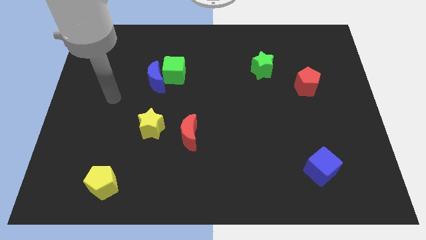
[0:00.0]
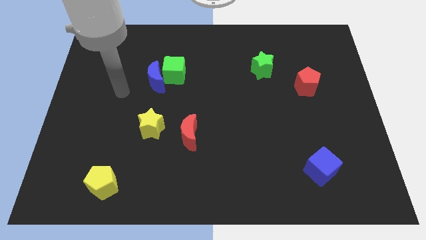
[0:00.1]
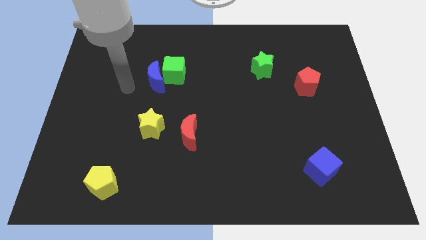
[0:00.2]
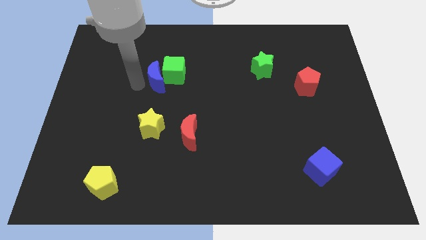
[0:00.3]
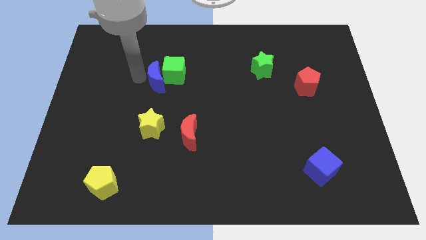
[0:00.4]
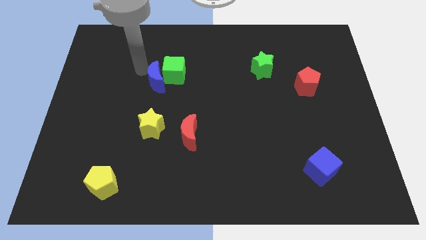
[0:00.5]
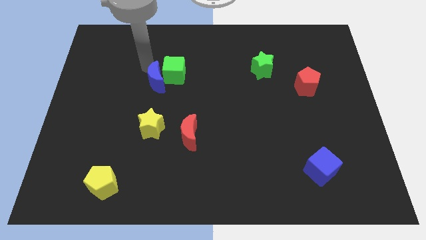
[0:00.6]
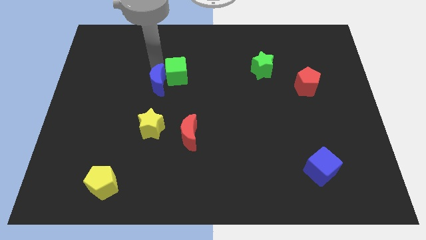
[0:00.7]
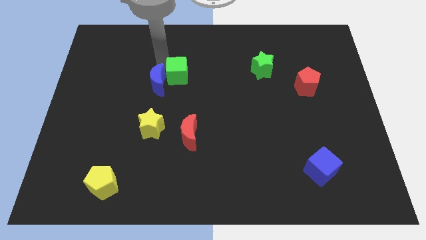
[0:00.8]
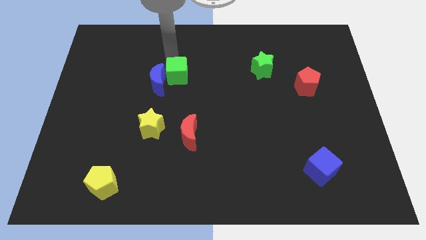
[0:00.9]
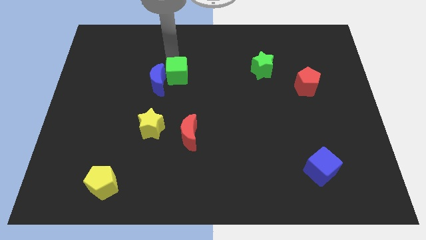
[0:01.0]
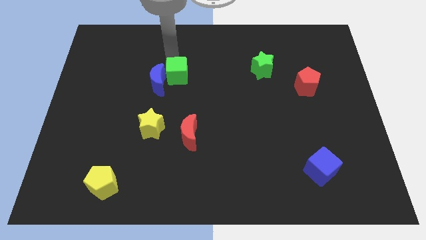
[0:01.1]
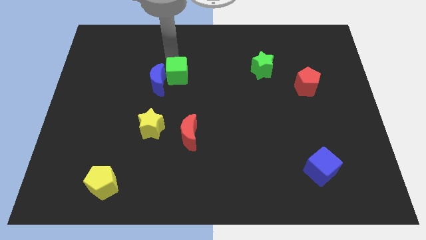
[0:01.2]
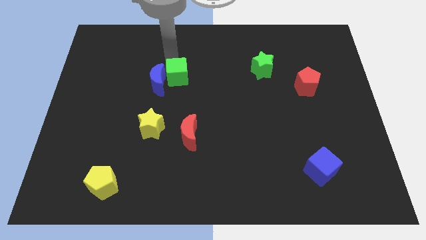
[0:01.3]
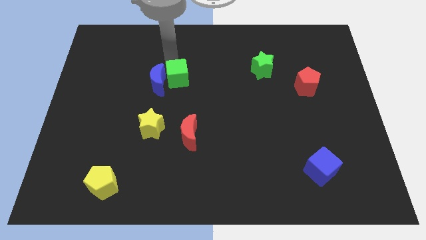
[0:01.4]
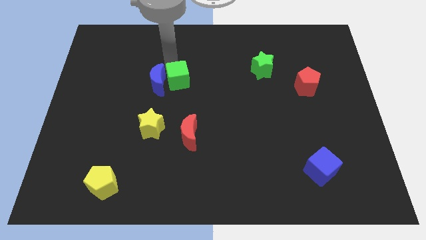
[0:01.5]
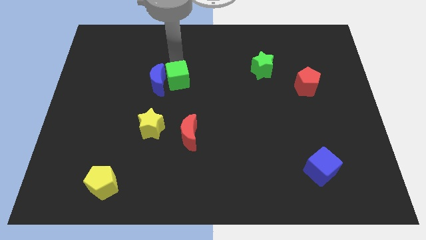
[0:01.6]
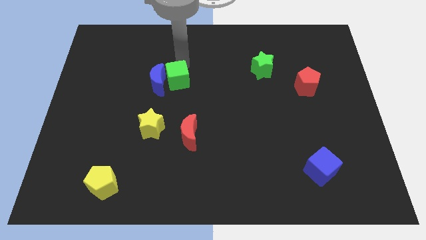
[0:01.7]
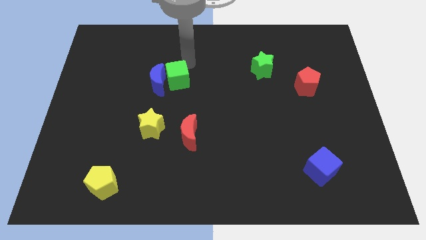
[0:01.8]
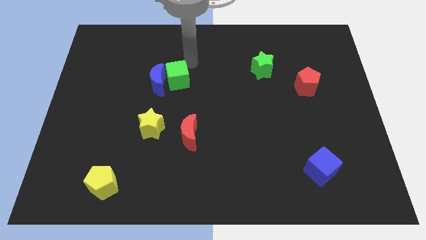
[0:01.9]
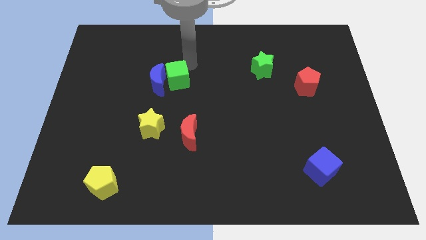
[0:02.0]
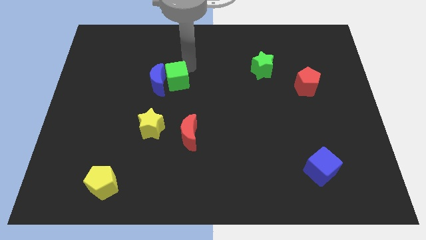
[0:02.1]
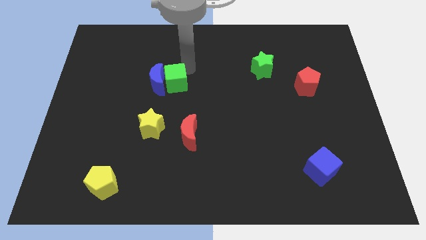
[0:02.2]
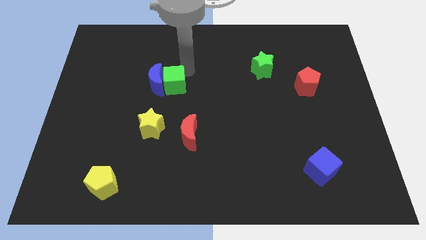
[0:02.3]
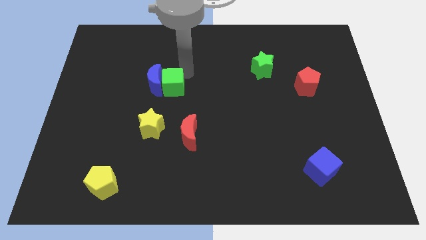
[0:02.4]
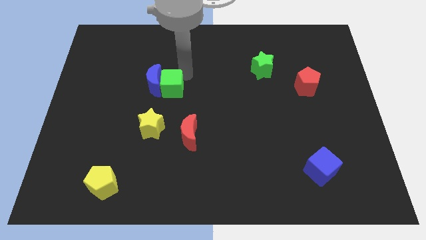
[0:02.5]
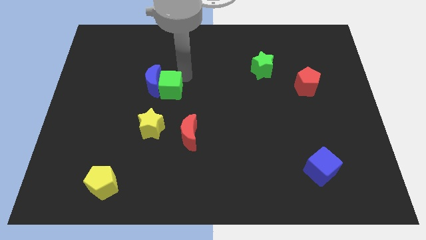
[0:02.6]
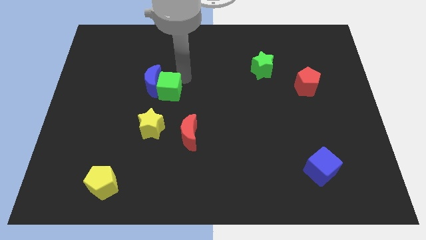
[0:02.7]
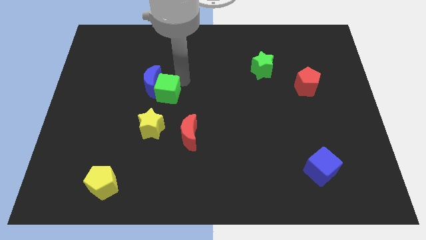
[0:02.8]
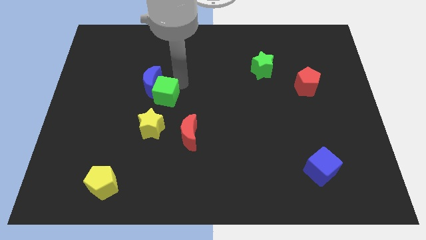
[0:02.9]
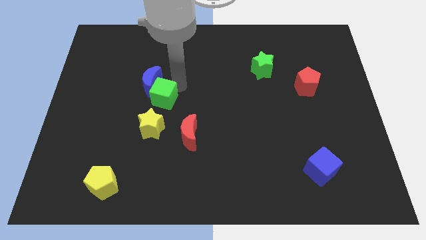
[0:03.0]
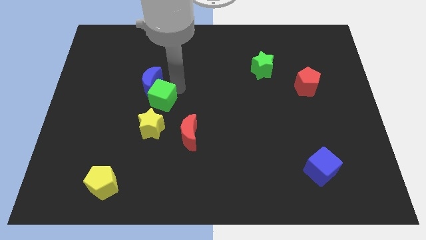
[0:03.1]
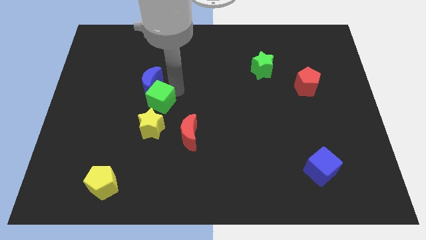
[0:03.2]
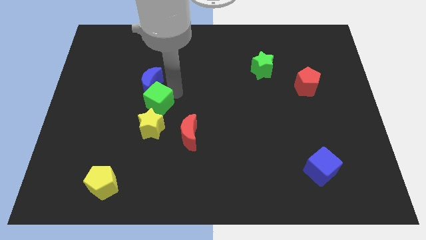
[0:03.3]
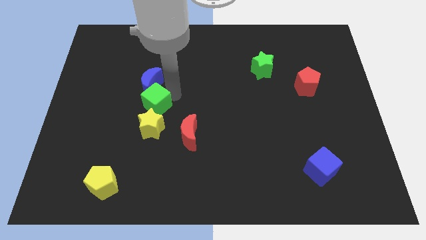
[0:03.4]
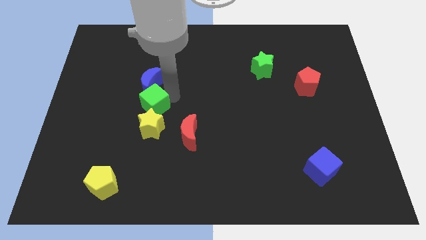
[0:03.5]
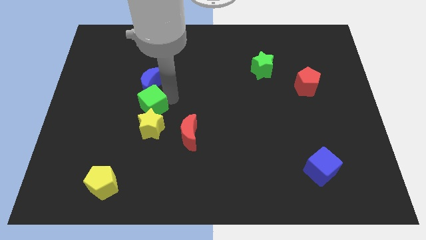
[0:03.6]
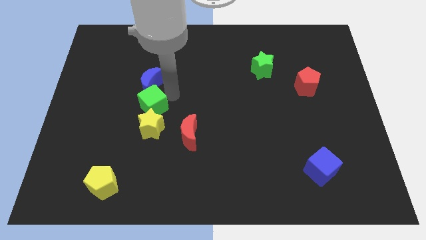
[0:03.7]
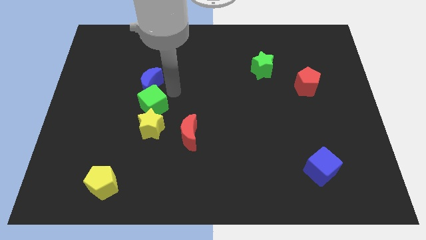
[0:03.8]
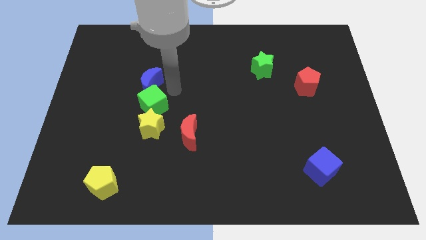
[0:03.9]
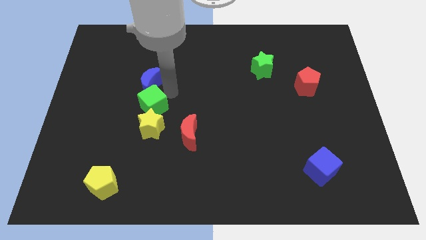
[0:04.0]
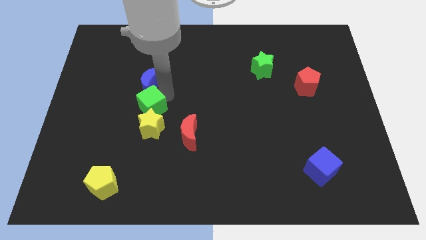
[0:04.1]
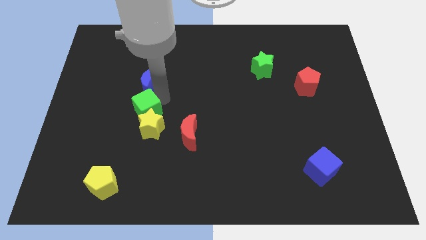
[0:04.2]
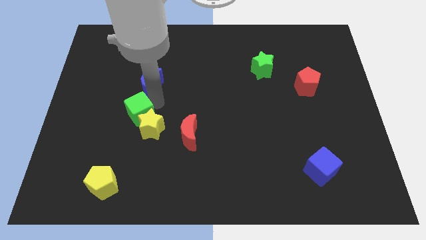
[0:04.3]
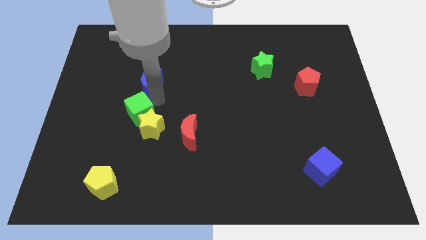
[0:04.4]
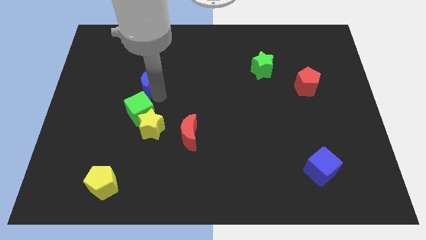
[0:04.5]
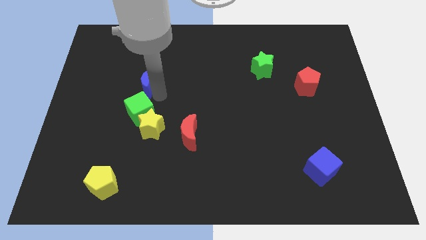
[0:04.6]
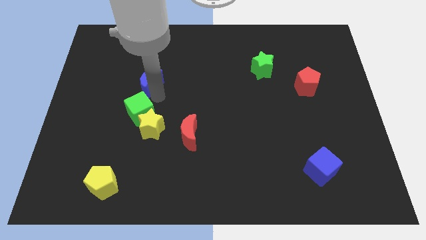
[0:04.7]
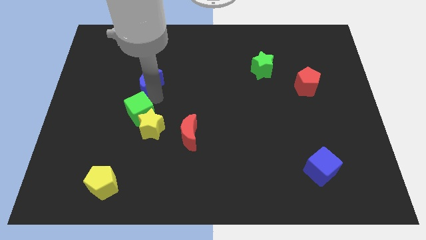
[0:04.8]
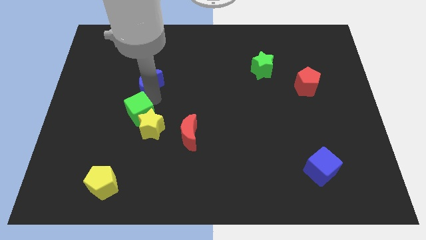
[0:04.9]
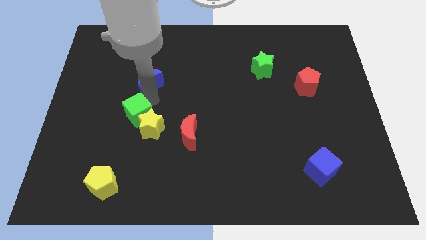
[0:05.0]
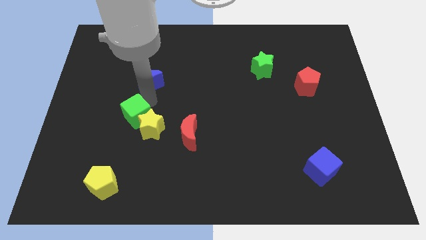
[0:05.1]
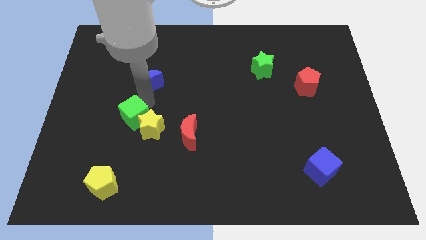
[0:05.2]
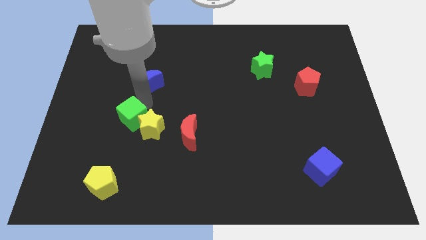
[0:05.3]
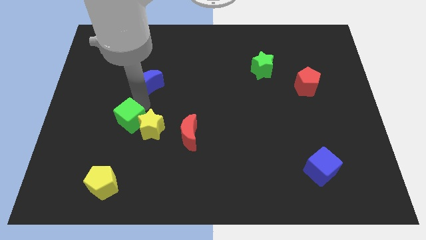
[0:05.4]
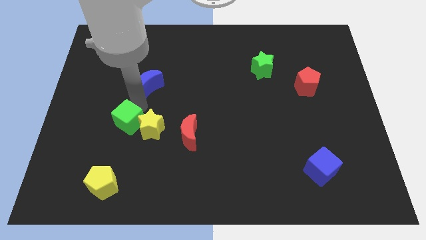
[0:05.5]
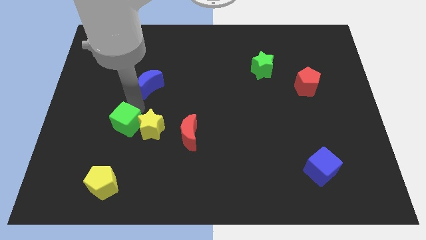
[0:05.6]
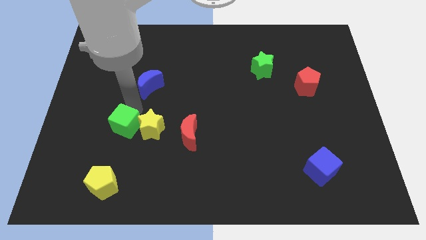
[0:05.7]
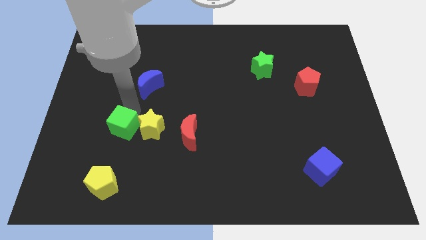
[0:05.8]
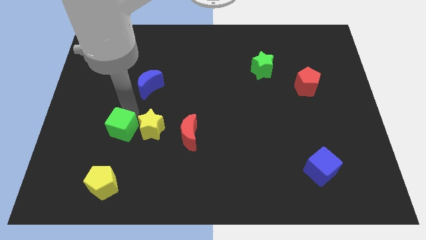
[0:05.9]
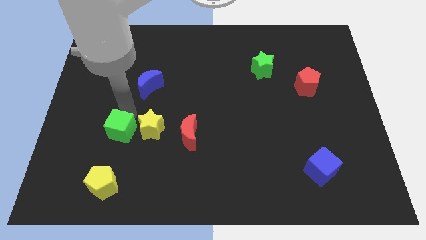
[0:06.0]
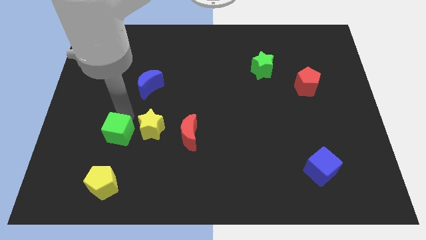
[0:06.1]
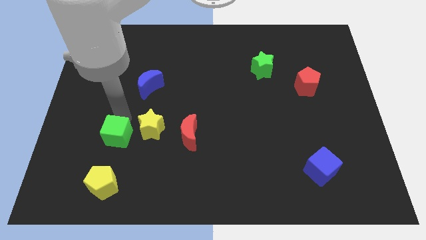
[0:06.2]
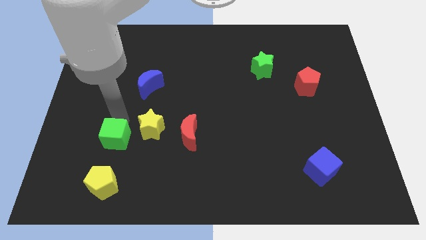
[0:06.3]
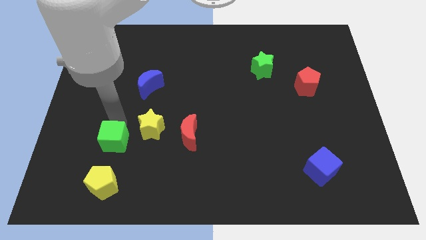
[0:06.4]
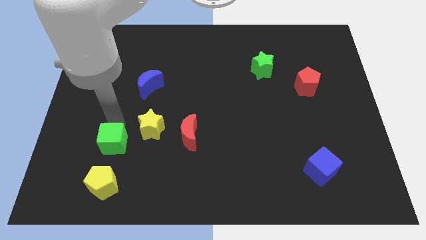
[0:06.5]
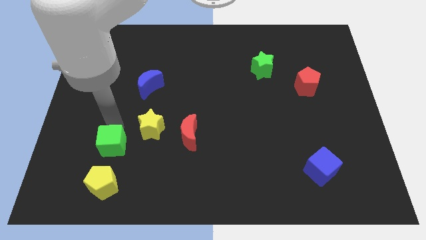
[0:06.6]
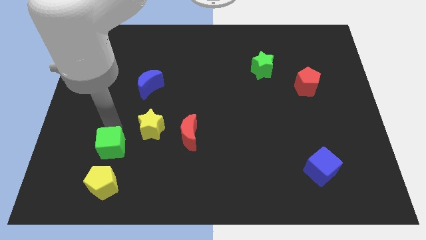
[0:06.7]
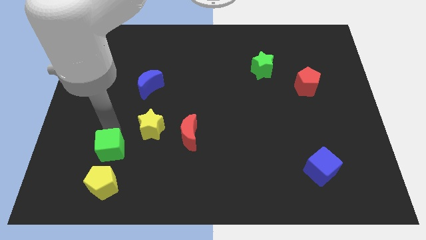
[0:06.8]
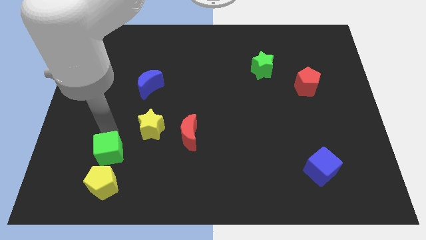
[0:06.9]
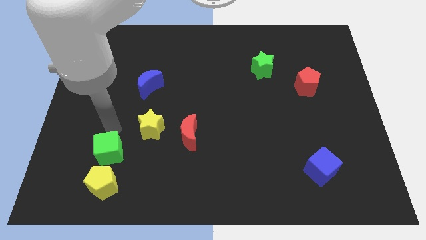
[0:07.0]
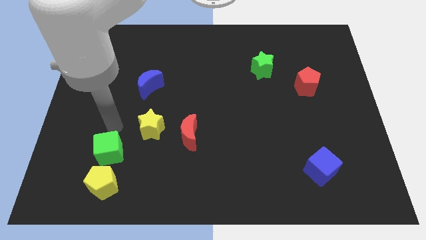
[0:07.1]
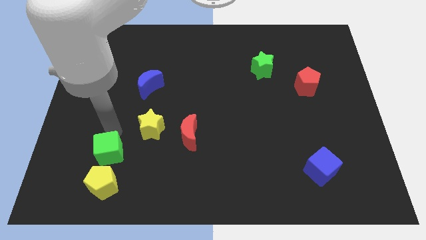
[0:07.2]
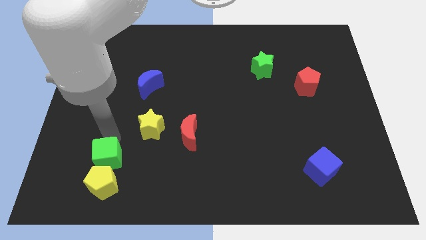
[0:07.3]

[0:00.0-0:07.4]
slide the green cube towards the yellow pentagon

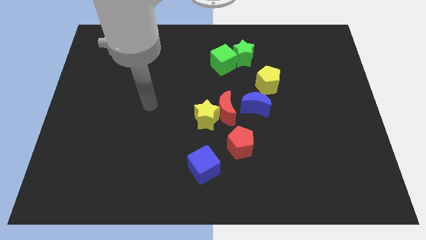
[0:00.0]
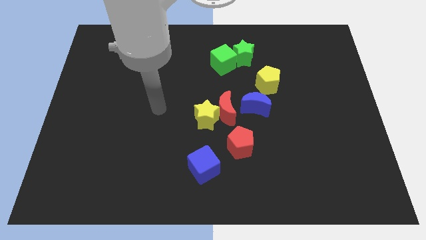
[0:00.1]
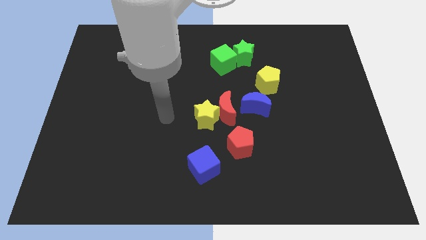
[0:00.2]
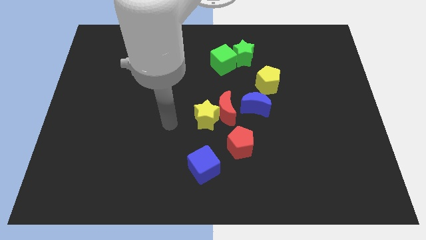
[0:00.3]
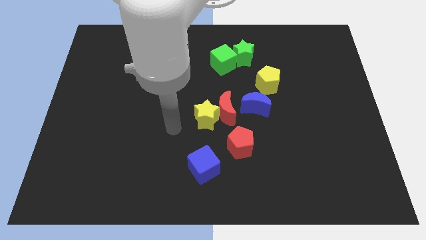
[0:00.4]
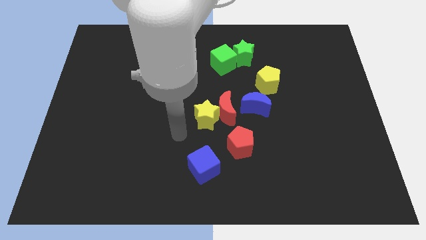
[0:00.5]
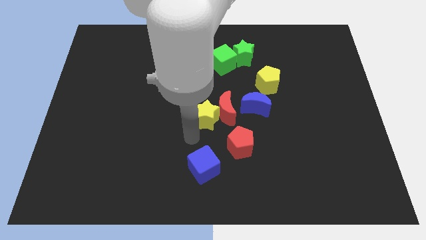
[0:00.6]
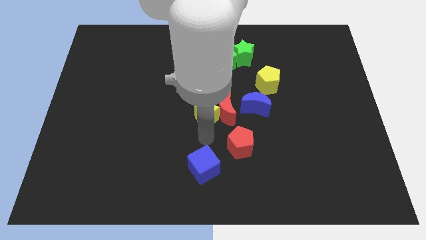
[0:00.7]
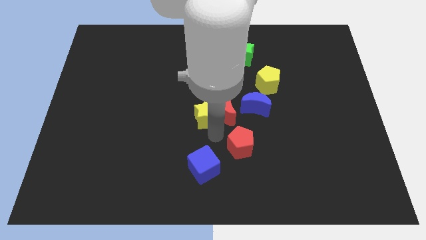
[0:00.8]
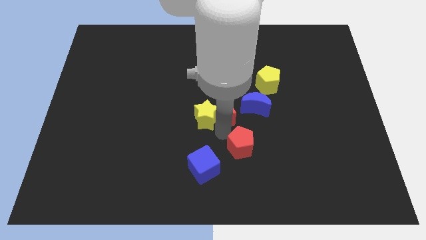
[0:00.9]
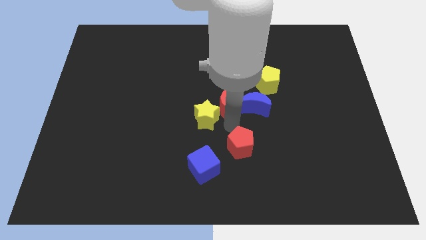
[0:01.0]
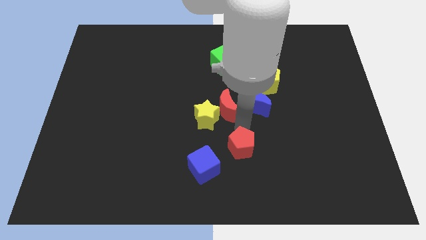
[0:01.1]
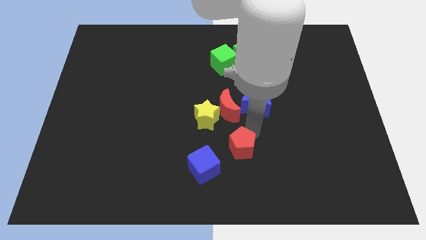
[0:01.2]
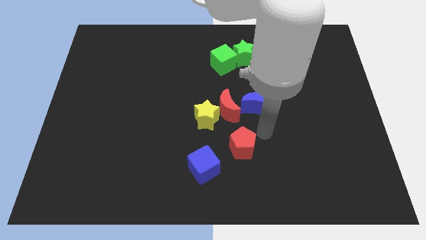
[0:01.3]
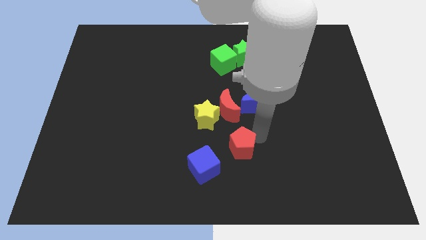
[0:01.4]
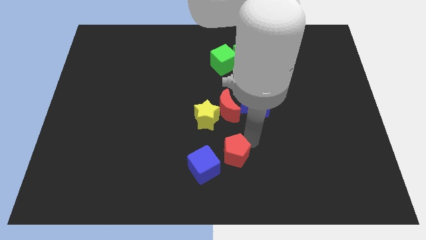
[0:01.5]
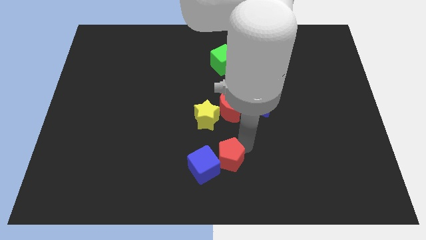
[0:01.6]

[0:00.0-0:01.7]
push the red pentagon to the blue cube
